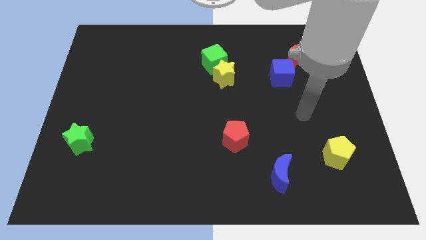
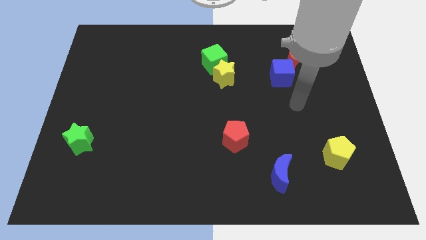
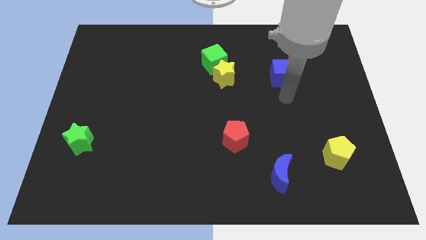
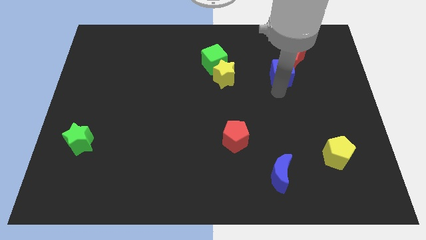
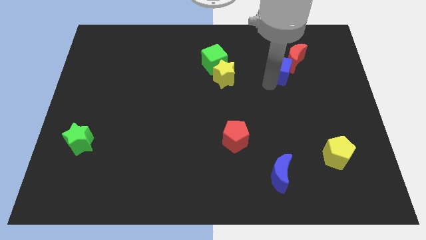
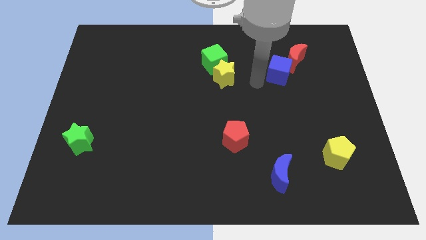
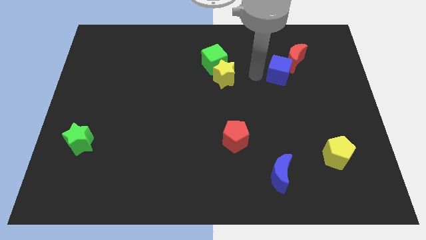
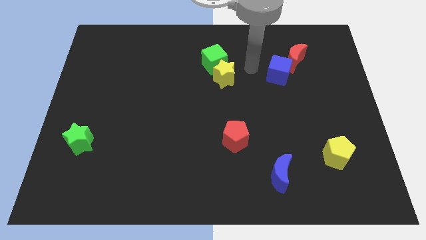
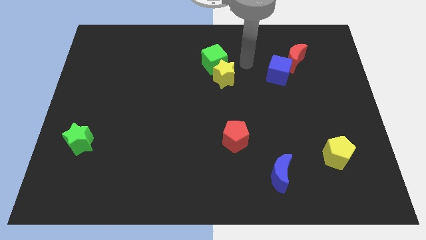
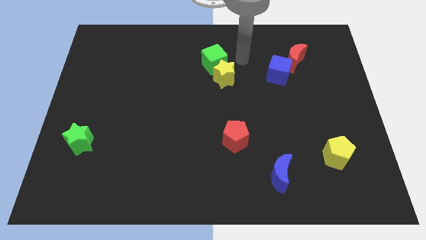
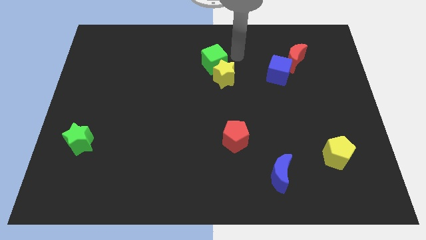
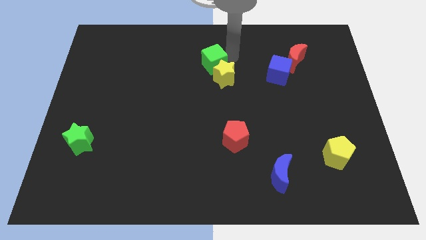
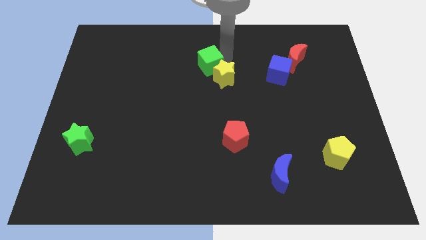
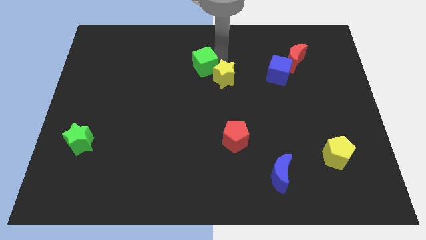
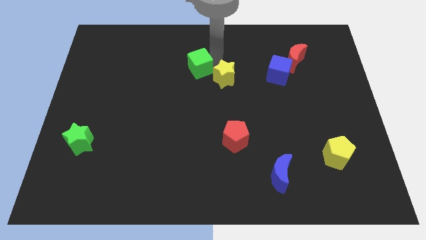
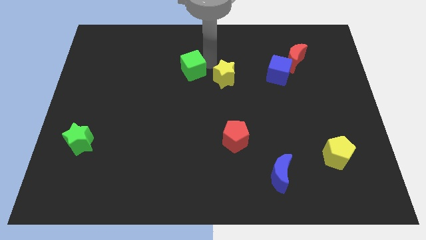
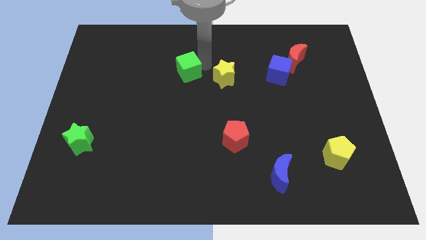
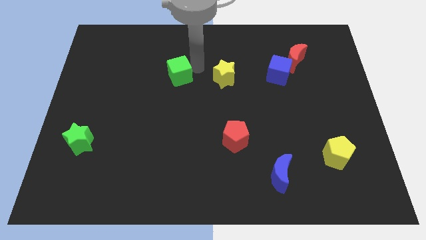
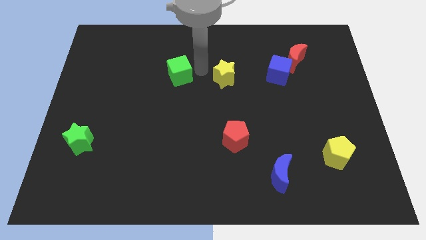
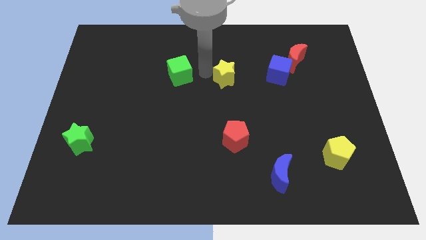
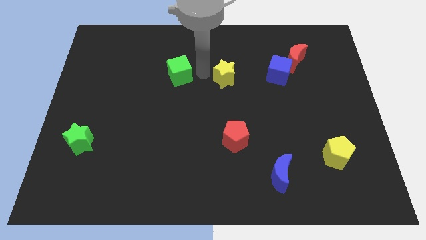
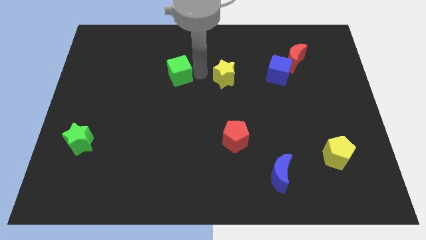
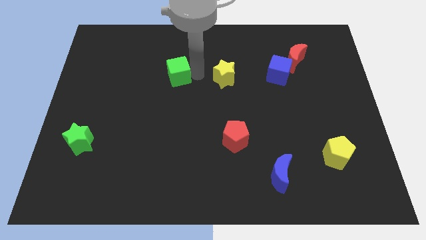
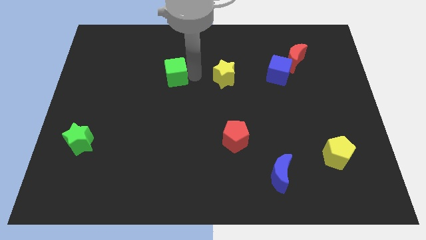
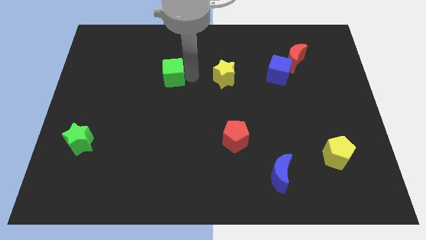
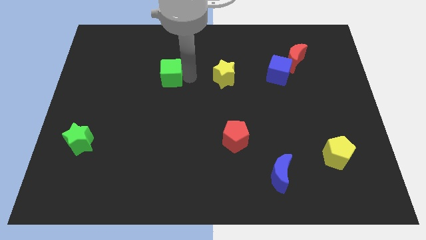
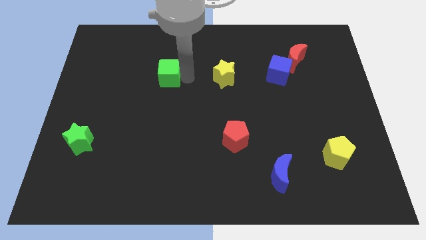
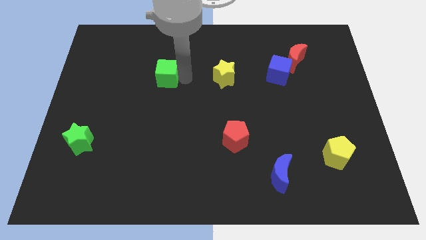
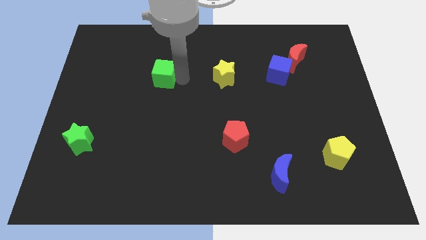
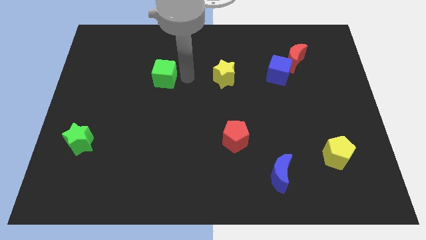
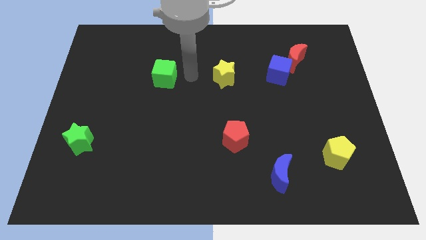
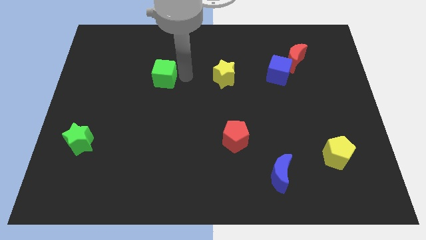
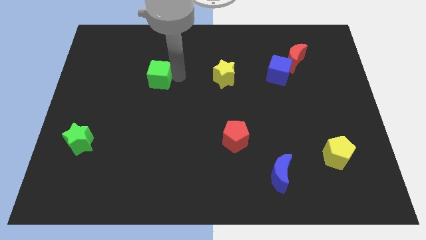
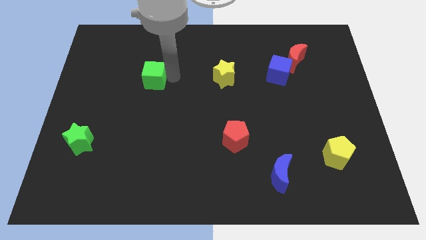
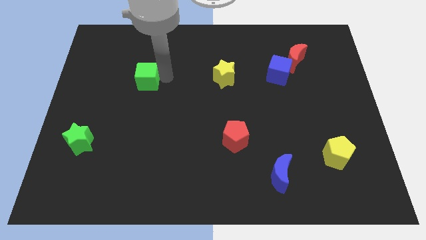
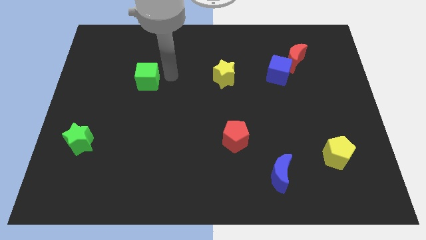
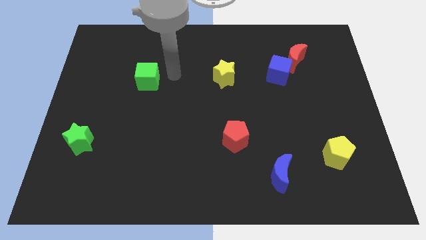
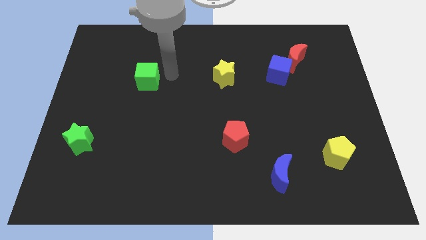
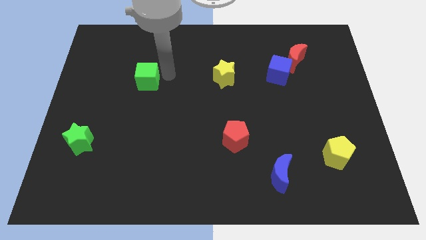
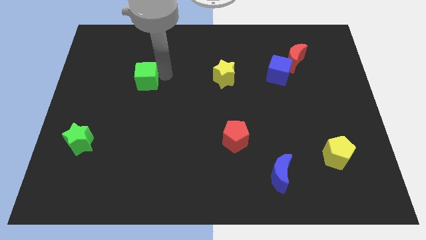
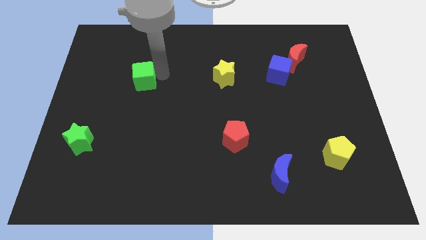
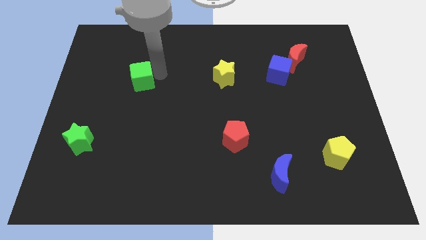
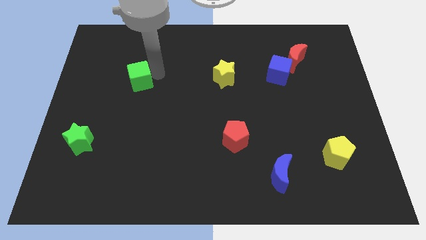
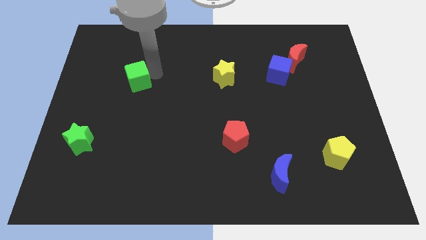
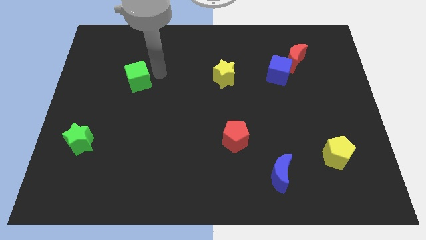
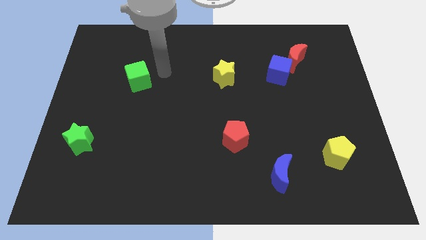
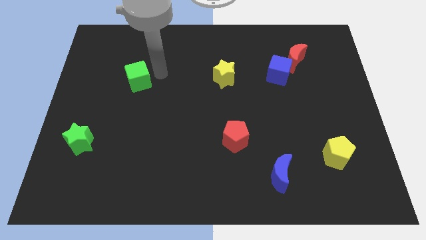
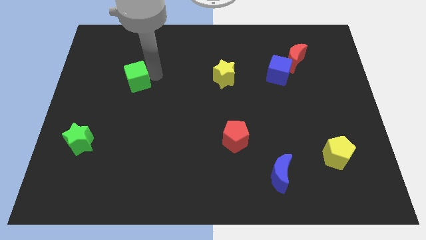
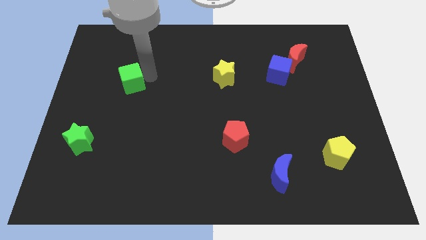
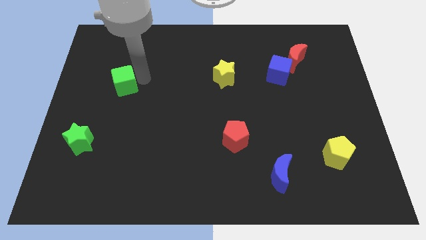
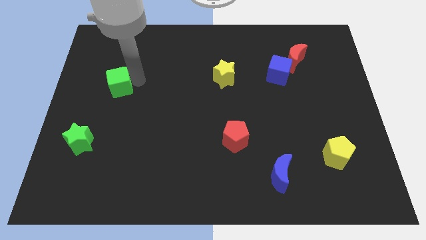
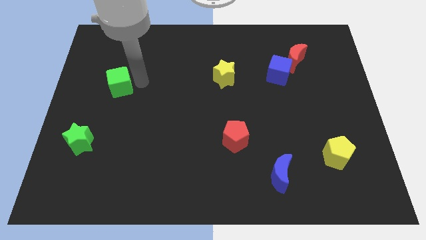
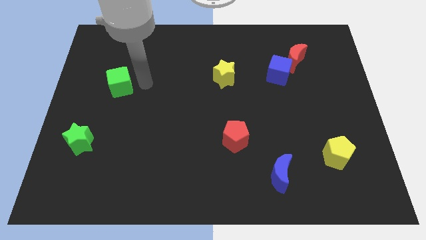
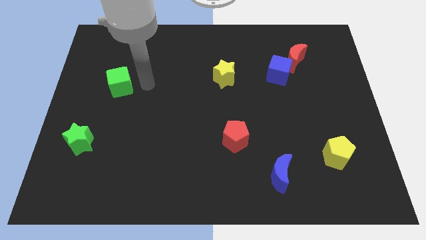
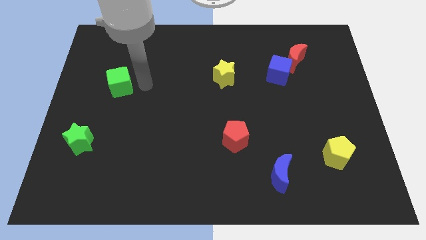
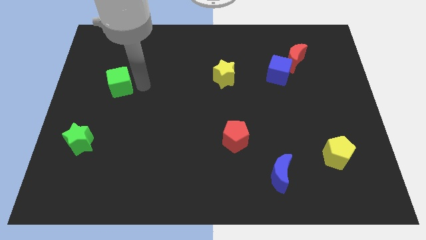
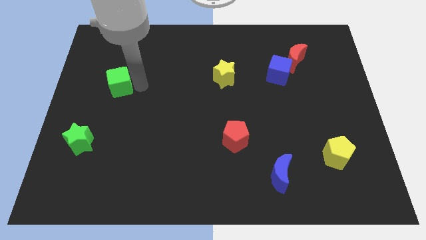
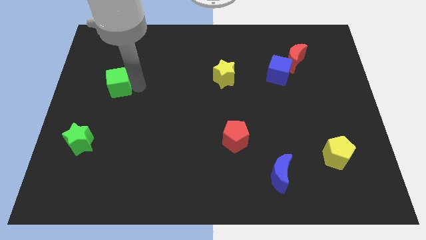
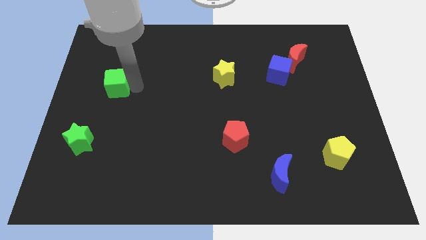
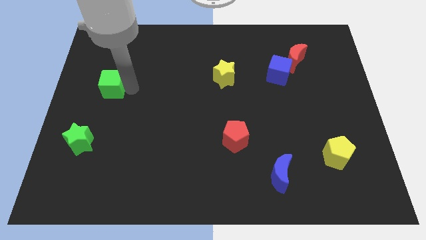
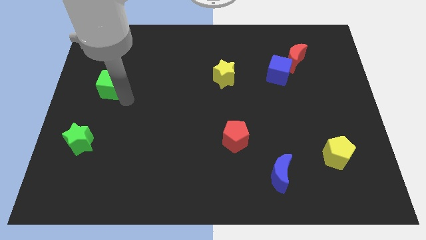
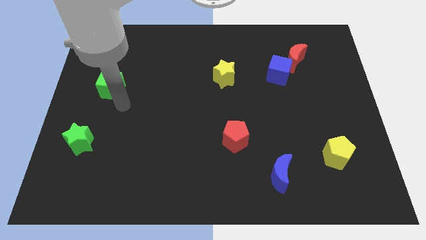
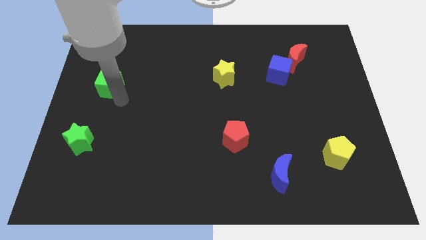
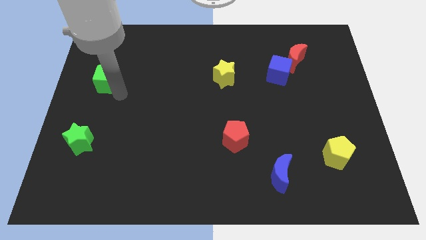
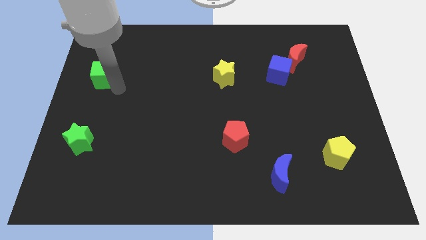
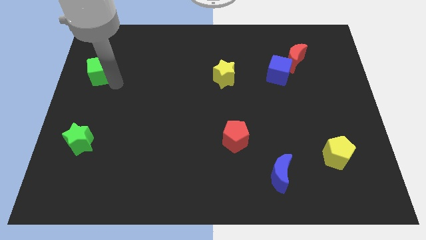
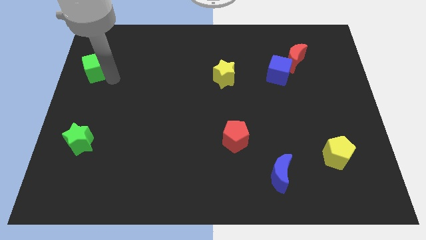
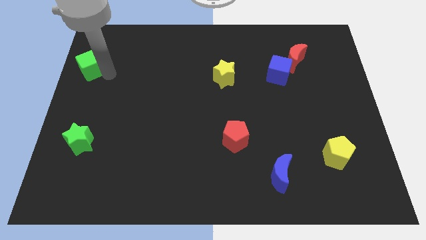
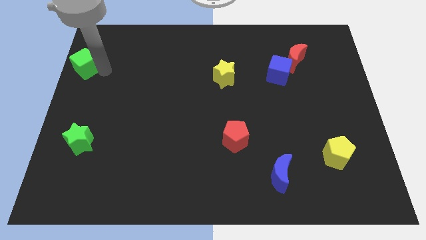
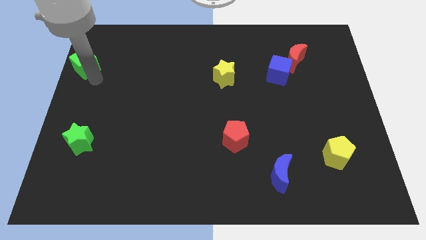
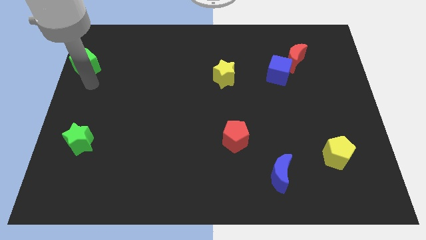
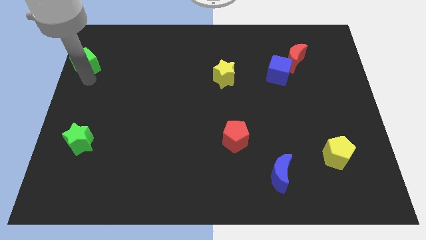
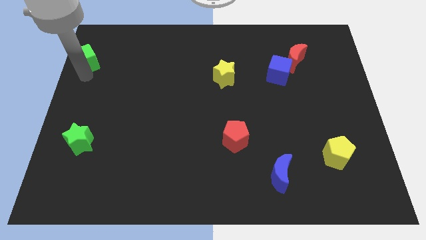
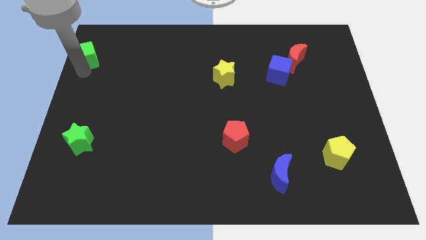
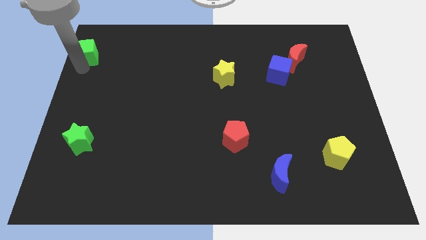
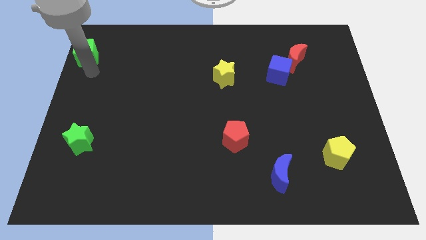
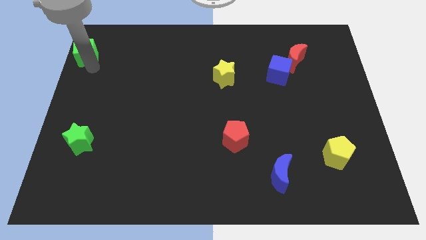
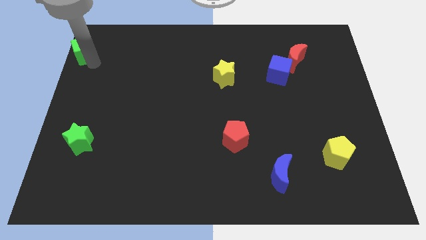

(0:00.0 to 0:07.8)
slide the green cube to the upper left corner

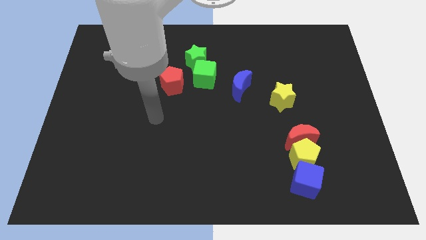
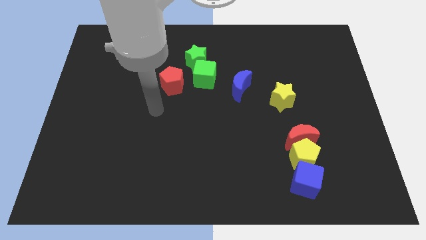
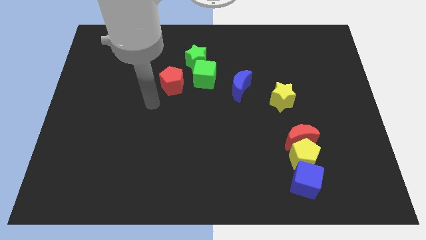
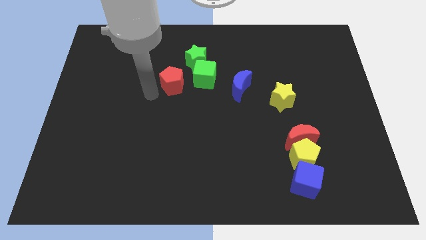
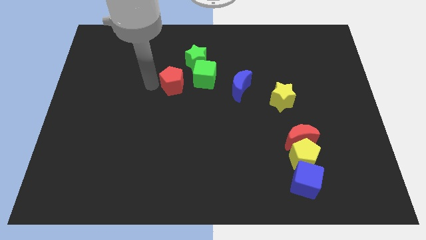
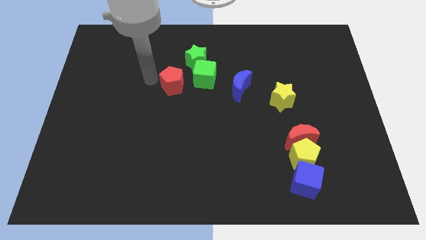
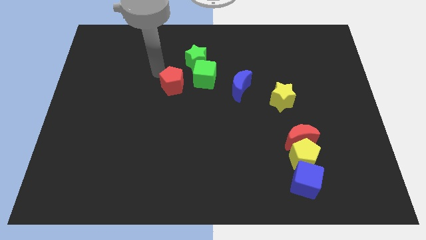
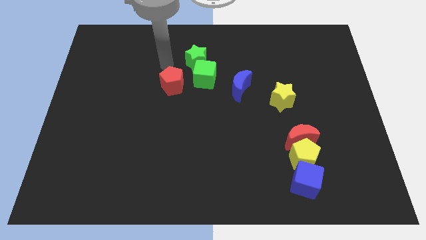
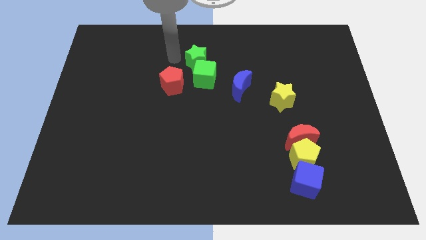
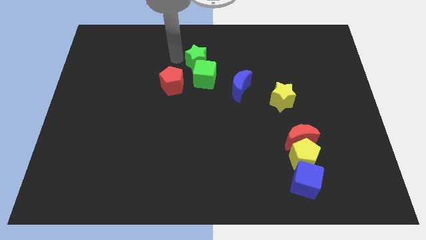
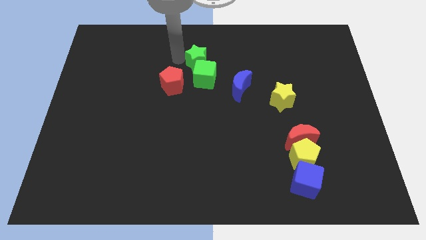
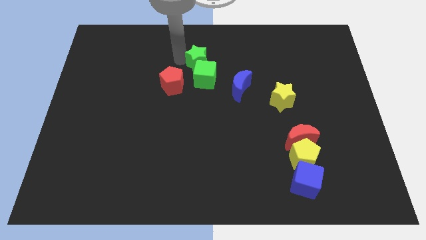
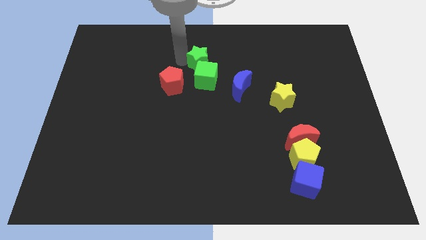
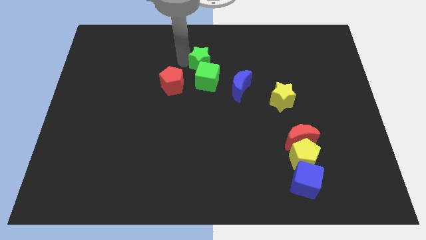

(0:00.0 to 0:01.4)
put the green star to the center of the board
